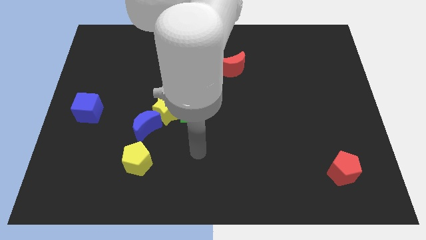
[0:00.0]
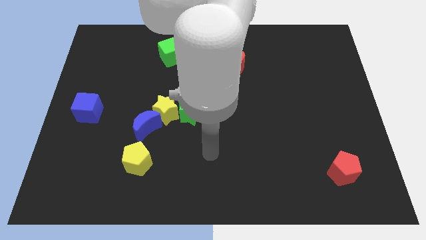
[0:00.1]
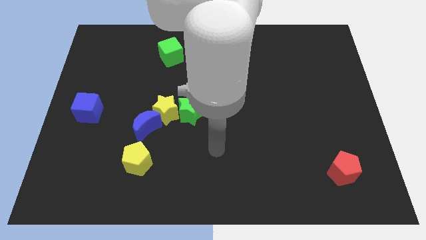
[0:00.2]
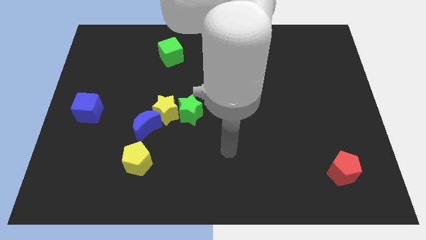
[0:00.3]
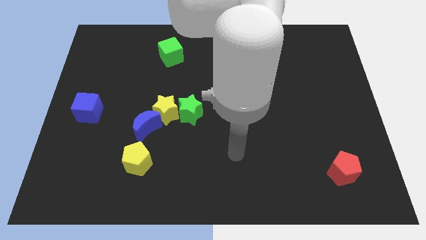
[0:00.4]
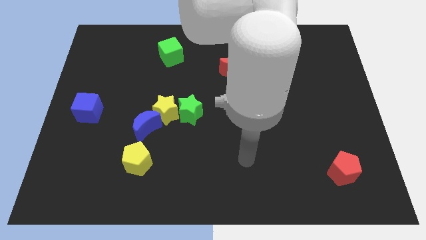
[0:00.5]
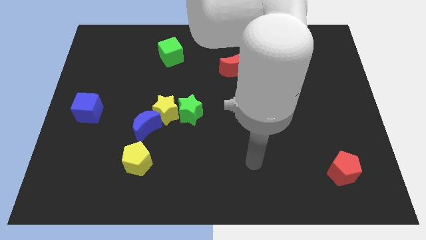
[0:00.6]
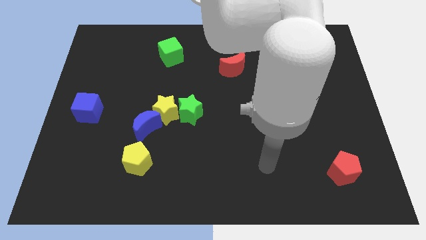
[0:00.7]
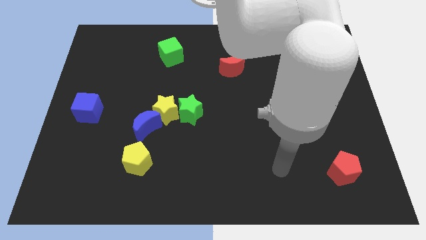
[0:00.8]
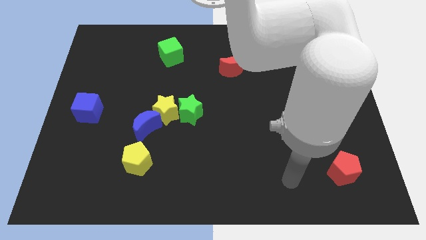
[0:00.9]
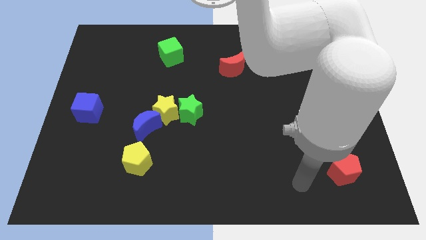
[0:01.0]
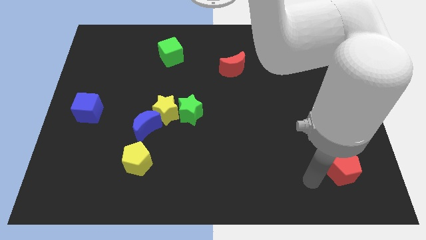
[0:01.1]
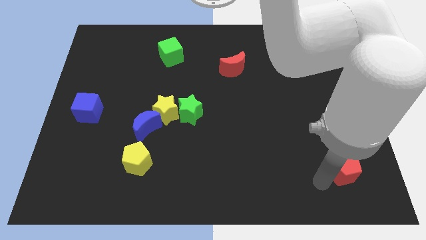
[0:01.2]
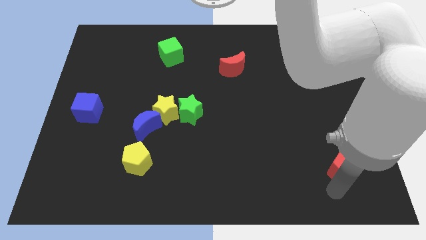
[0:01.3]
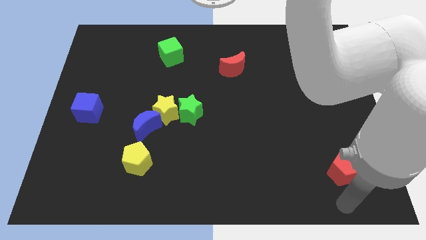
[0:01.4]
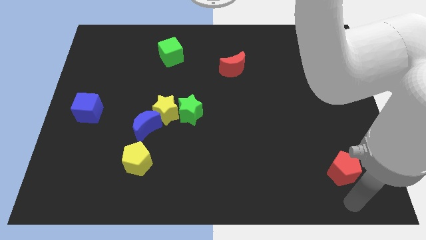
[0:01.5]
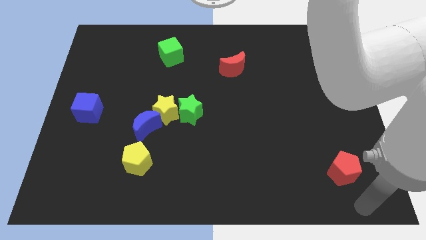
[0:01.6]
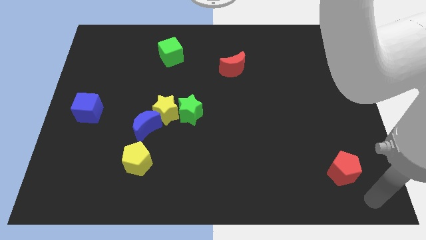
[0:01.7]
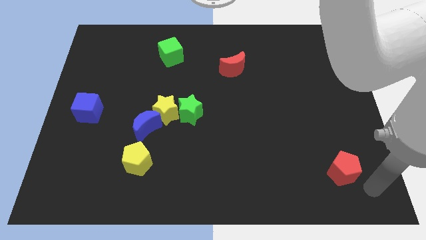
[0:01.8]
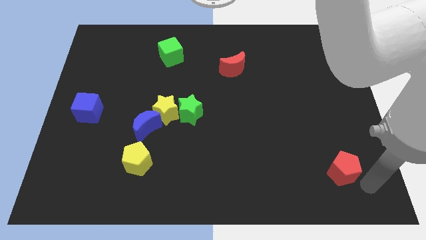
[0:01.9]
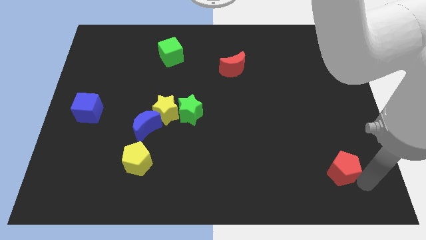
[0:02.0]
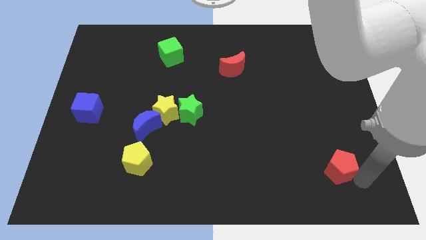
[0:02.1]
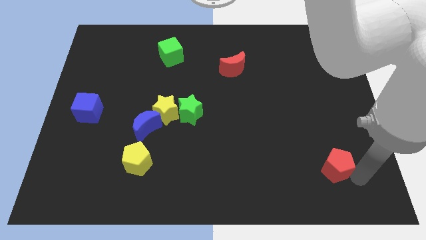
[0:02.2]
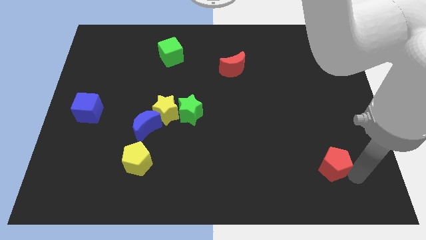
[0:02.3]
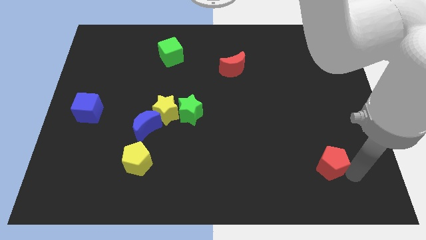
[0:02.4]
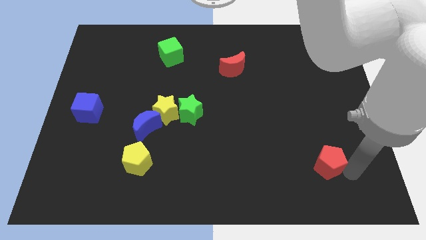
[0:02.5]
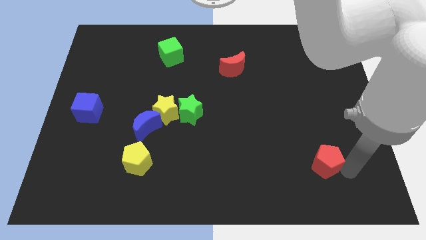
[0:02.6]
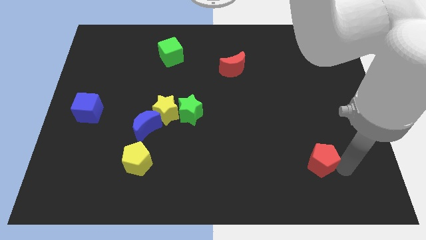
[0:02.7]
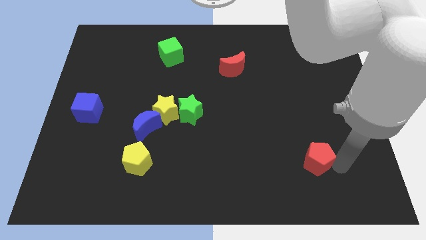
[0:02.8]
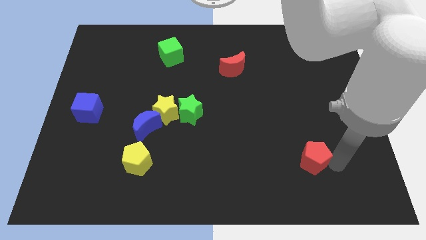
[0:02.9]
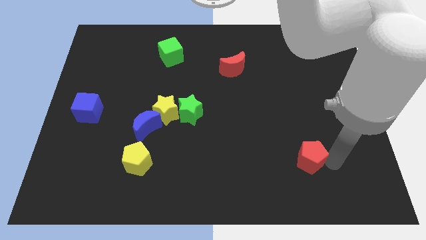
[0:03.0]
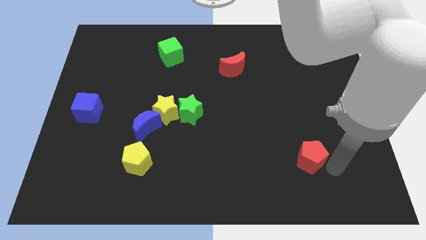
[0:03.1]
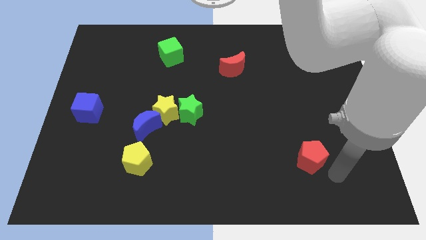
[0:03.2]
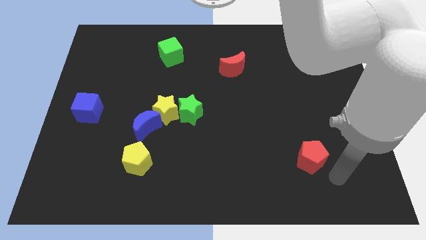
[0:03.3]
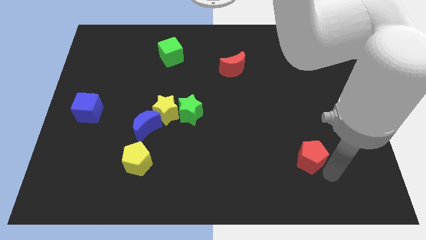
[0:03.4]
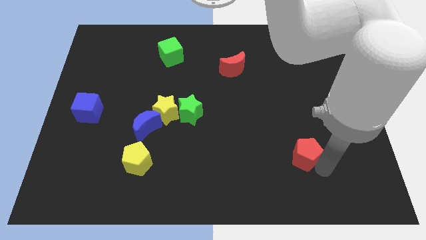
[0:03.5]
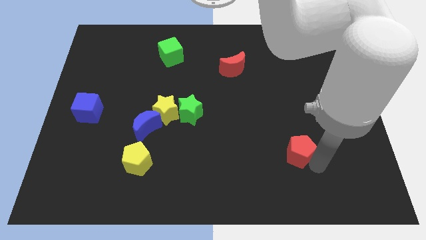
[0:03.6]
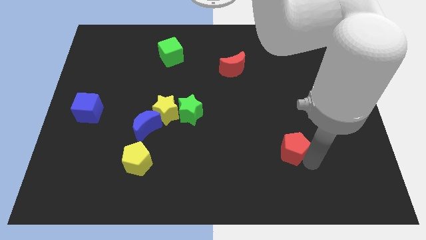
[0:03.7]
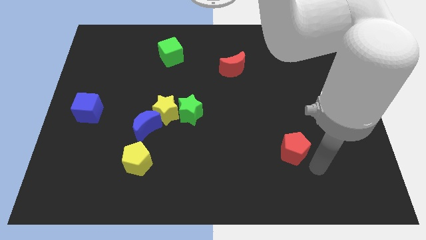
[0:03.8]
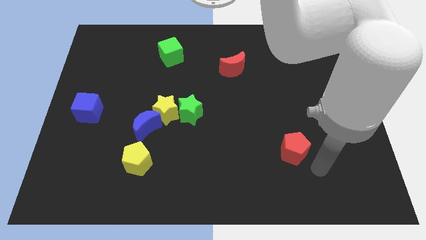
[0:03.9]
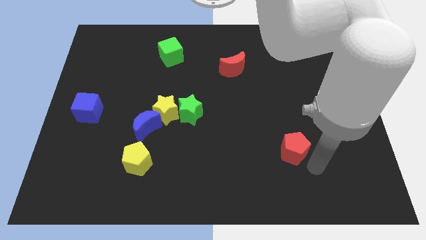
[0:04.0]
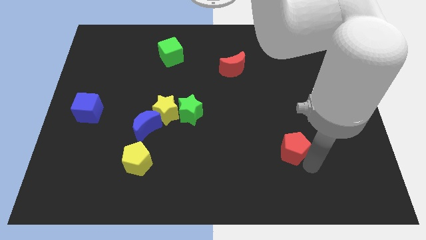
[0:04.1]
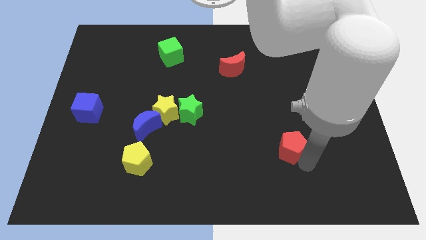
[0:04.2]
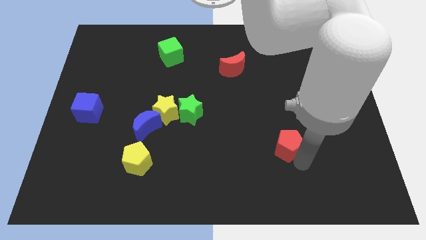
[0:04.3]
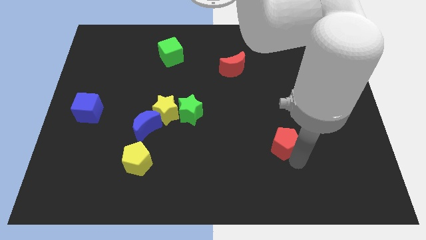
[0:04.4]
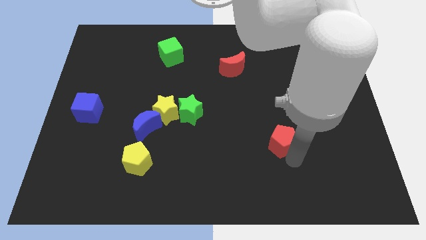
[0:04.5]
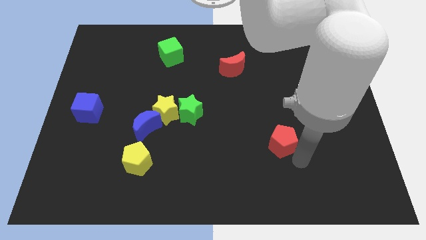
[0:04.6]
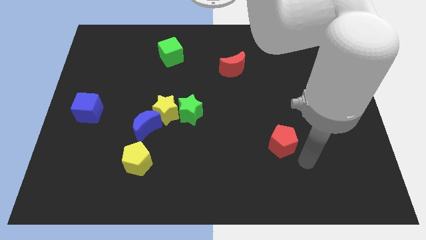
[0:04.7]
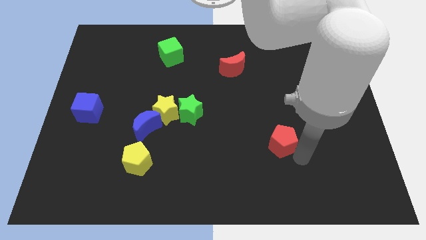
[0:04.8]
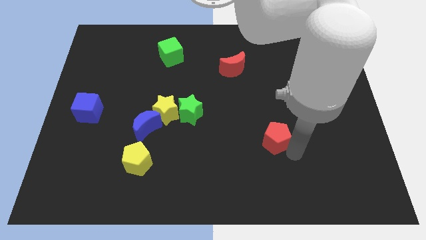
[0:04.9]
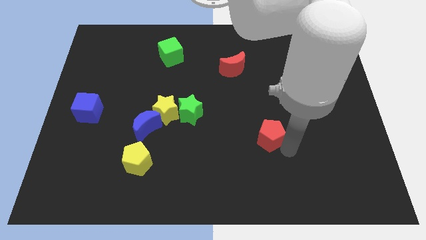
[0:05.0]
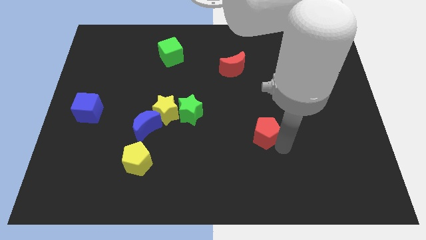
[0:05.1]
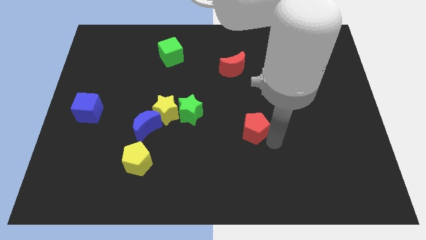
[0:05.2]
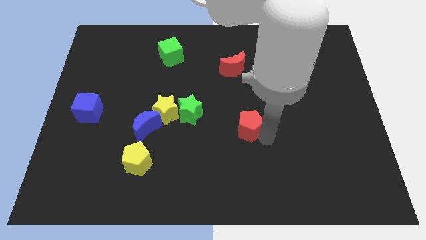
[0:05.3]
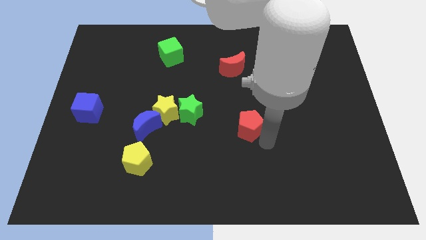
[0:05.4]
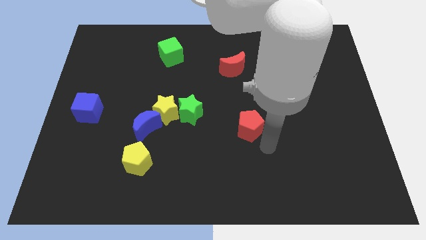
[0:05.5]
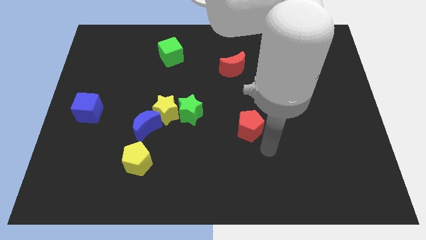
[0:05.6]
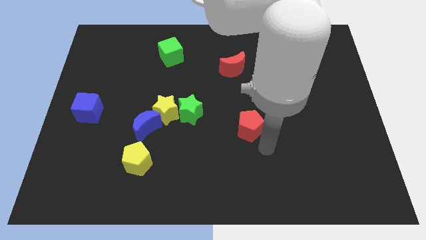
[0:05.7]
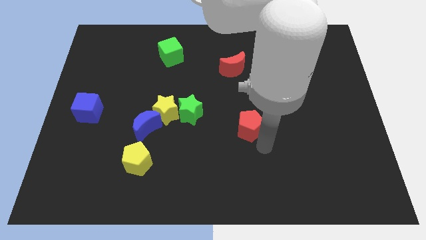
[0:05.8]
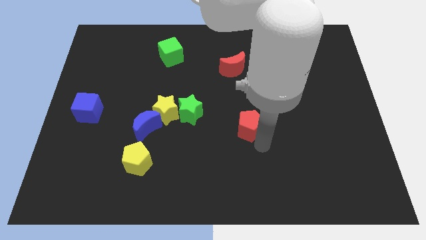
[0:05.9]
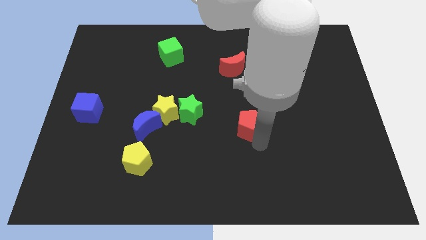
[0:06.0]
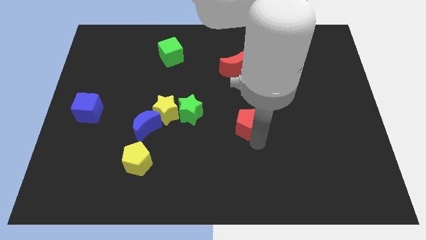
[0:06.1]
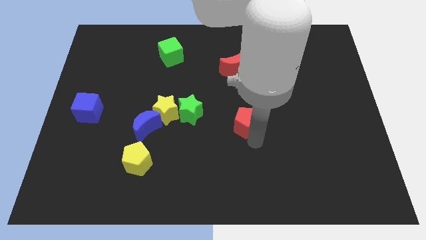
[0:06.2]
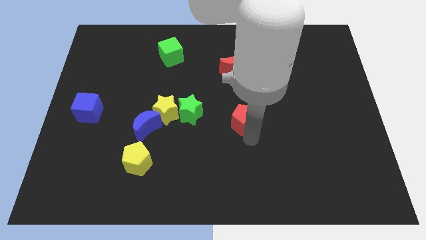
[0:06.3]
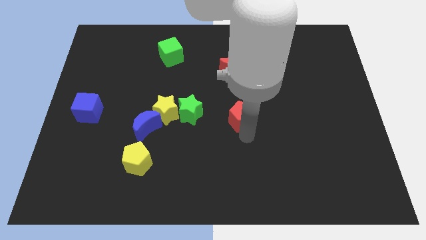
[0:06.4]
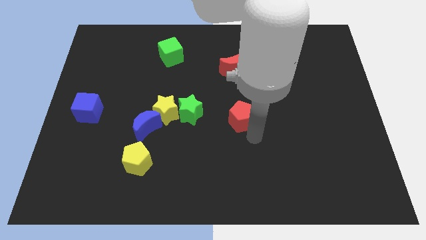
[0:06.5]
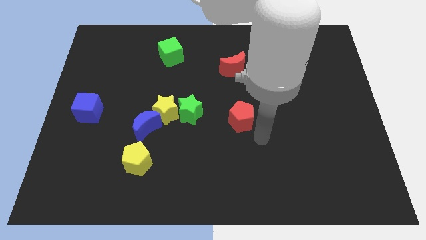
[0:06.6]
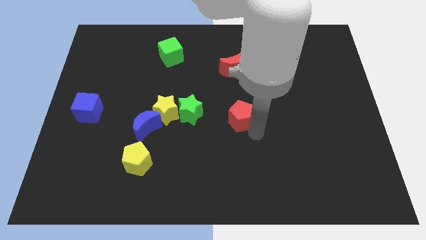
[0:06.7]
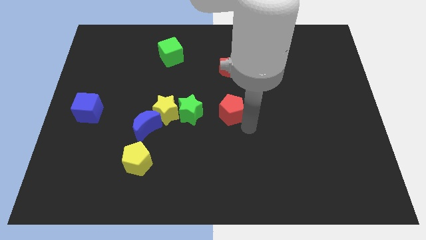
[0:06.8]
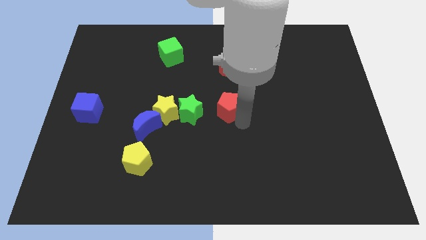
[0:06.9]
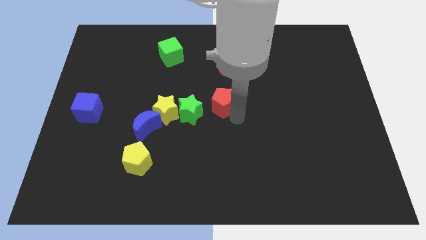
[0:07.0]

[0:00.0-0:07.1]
slide the red pentagon diagonally up and to the right of the green star
